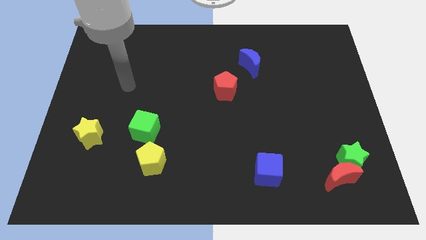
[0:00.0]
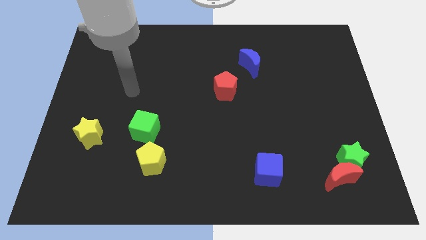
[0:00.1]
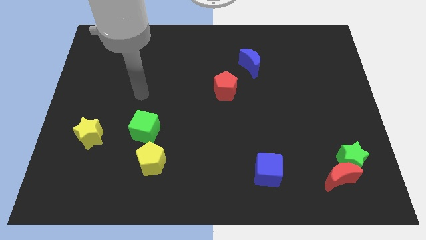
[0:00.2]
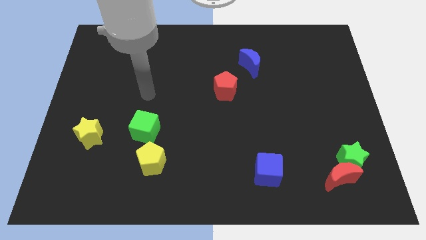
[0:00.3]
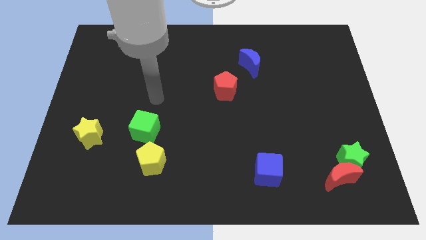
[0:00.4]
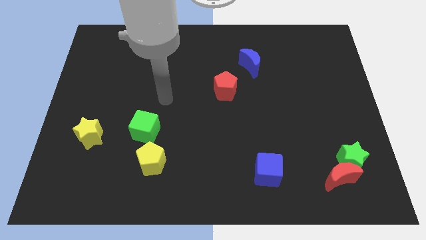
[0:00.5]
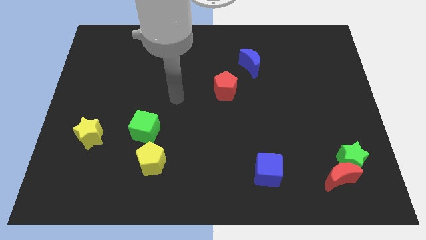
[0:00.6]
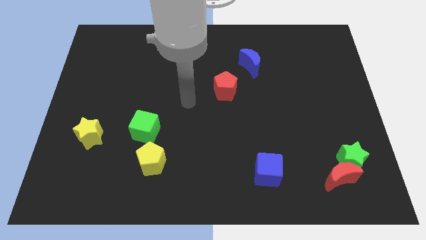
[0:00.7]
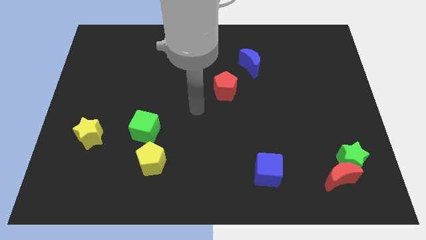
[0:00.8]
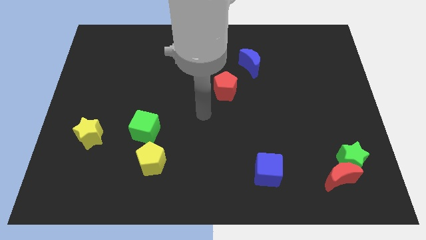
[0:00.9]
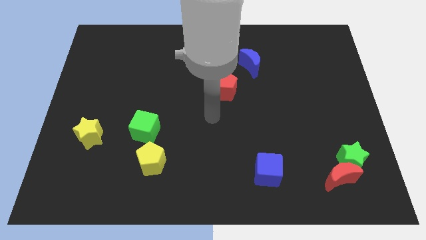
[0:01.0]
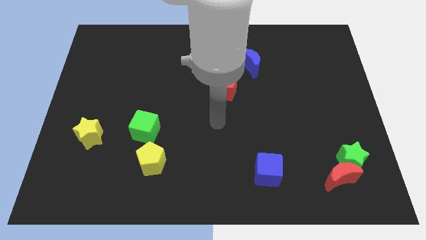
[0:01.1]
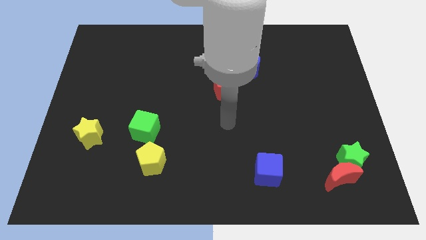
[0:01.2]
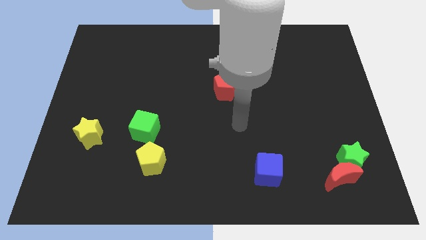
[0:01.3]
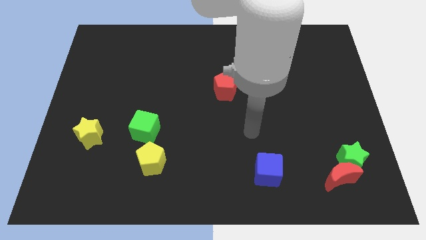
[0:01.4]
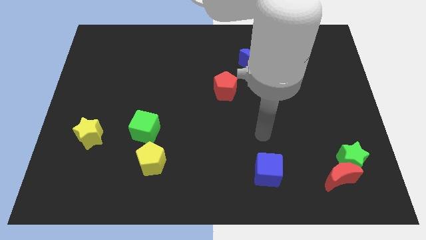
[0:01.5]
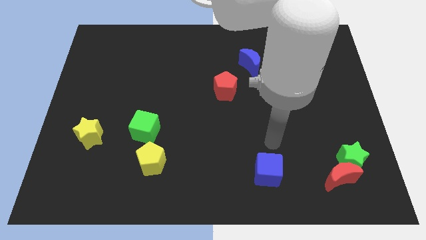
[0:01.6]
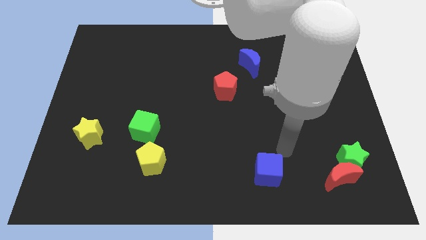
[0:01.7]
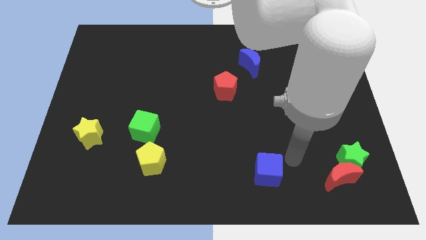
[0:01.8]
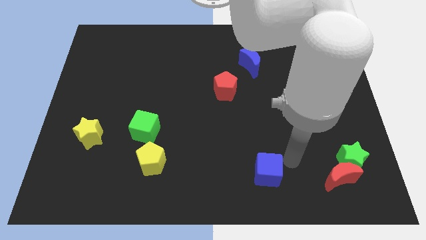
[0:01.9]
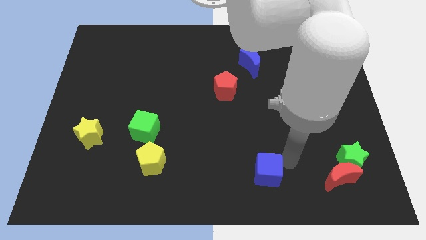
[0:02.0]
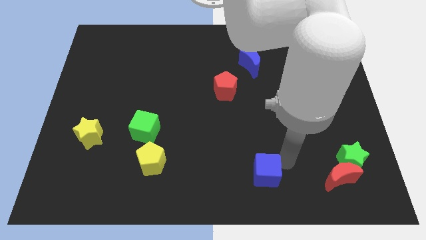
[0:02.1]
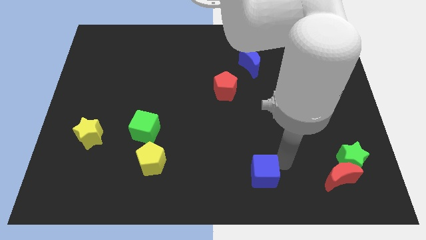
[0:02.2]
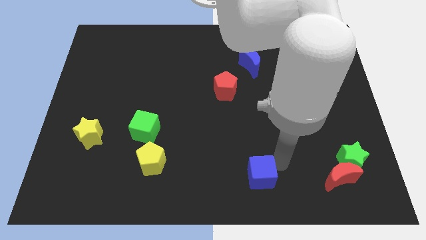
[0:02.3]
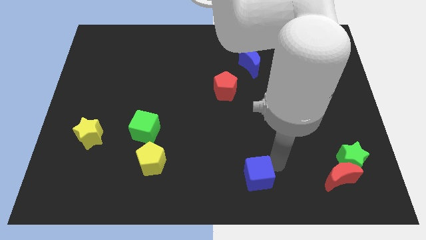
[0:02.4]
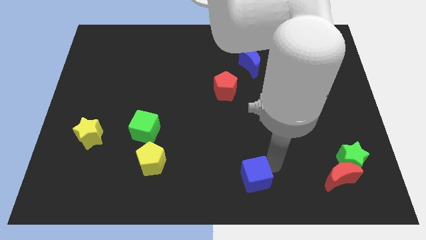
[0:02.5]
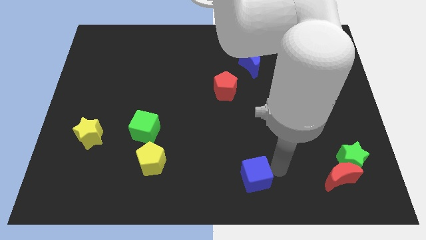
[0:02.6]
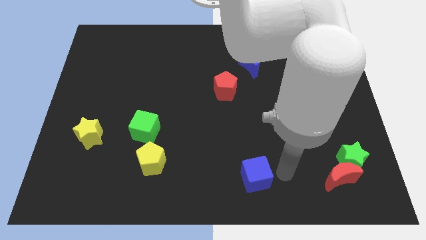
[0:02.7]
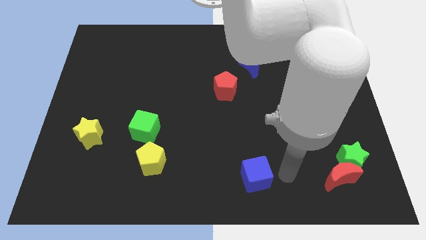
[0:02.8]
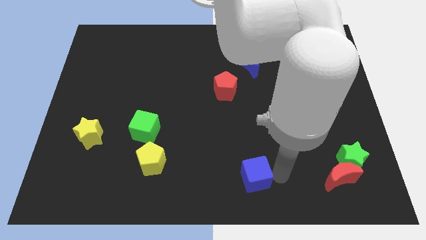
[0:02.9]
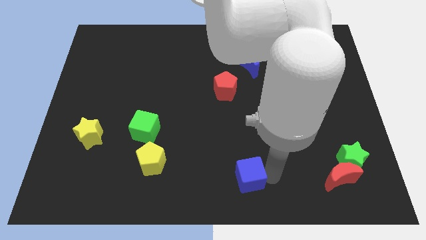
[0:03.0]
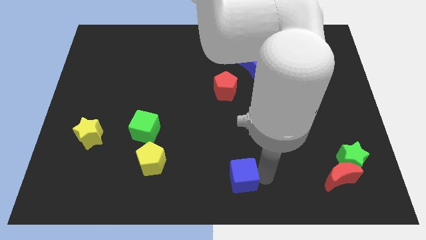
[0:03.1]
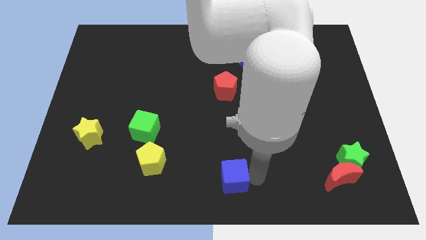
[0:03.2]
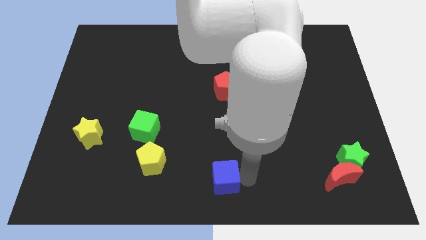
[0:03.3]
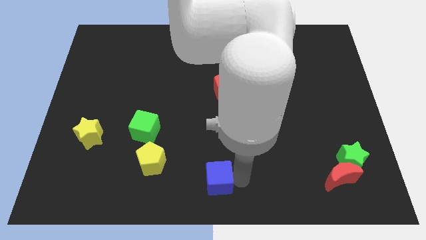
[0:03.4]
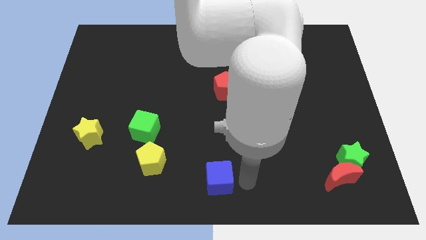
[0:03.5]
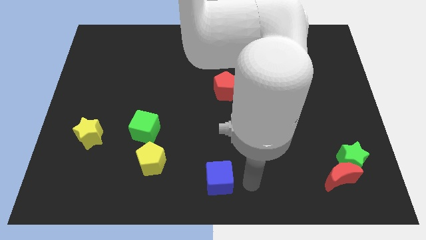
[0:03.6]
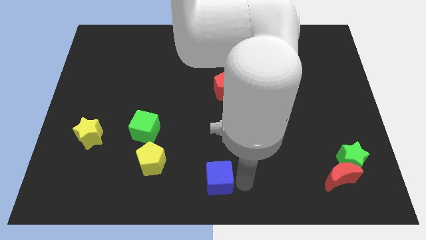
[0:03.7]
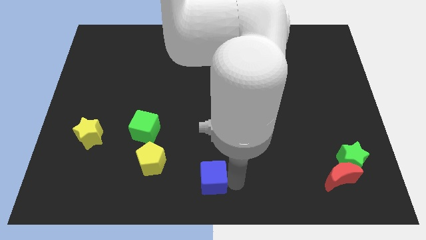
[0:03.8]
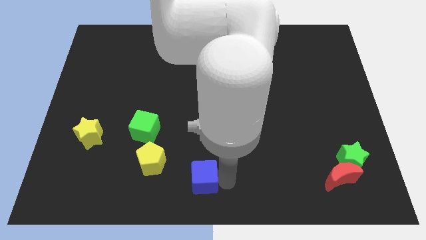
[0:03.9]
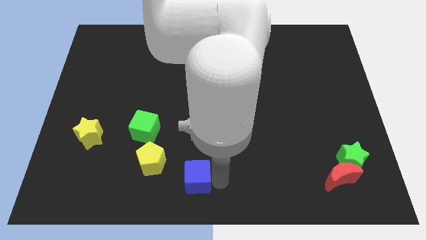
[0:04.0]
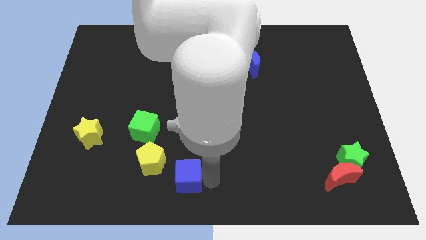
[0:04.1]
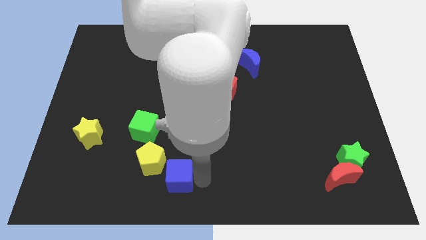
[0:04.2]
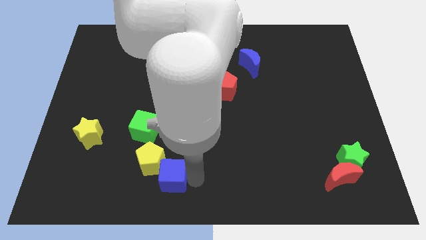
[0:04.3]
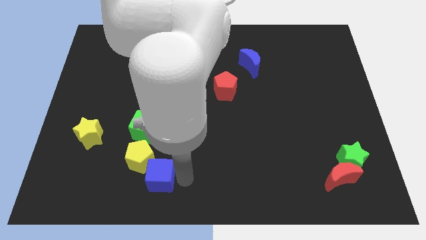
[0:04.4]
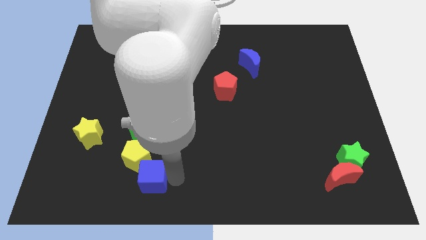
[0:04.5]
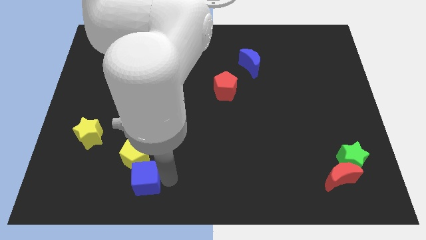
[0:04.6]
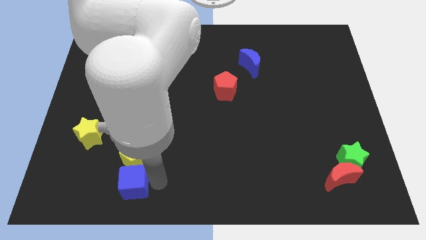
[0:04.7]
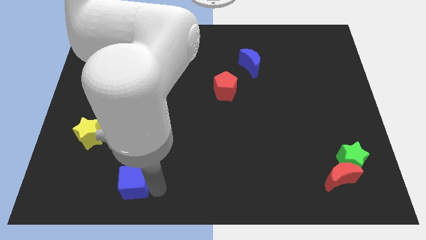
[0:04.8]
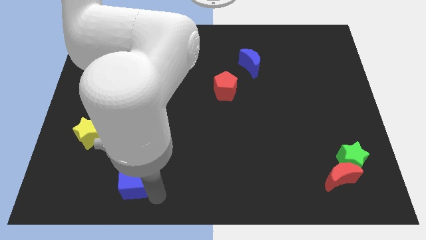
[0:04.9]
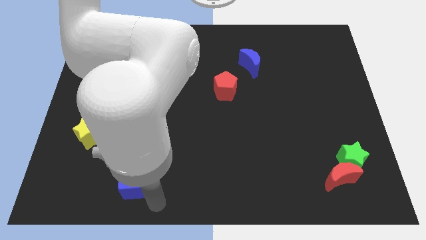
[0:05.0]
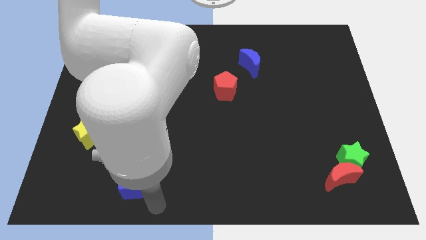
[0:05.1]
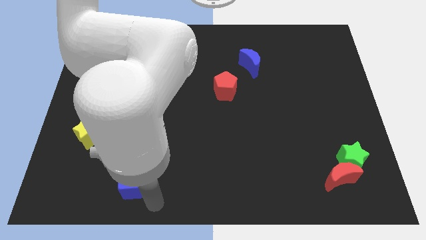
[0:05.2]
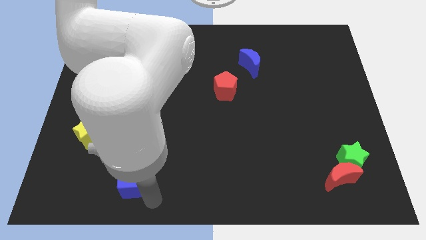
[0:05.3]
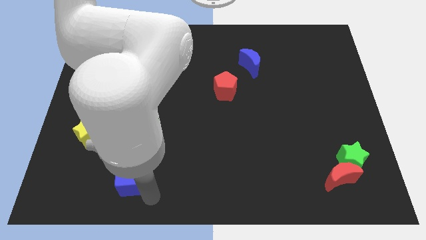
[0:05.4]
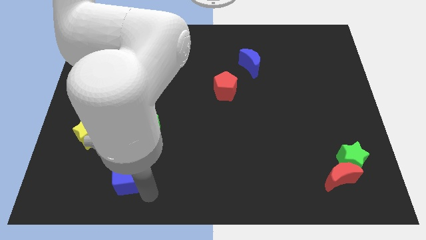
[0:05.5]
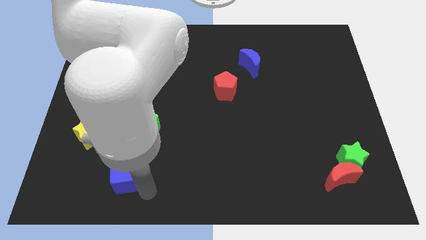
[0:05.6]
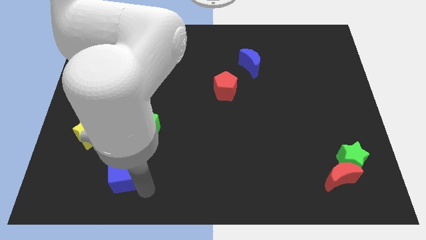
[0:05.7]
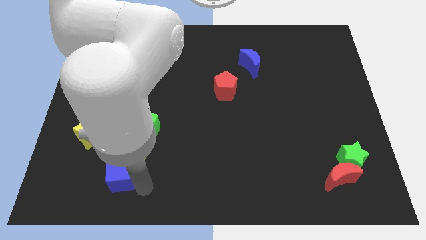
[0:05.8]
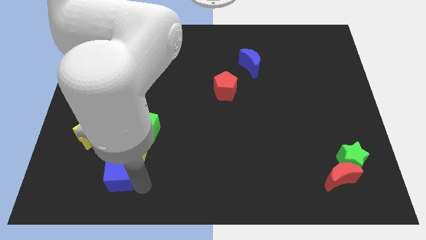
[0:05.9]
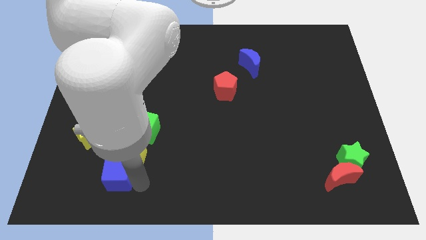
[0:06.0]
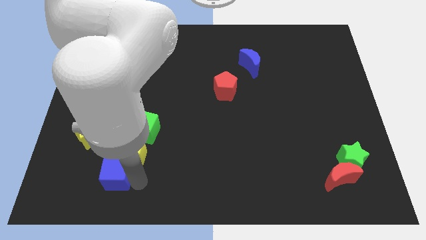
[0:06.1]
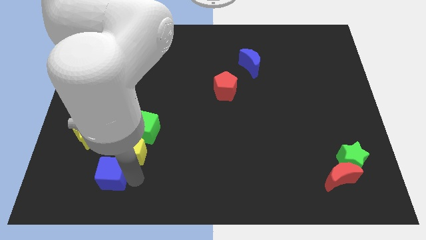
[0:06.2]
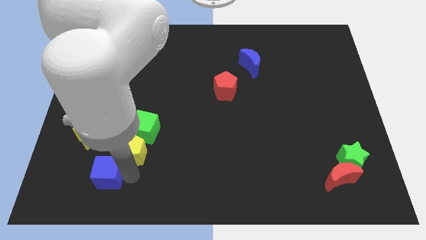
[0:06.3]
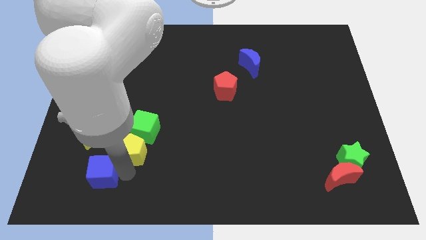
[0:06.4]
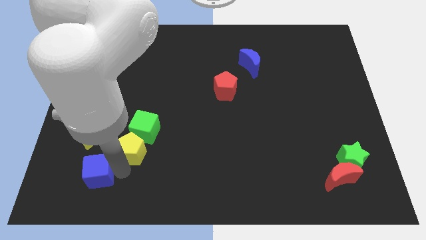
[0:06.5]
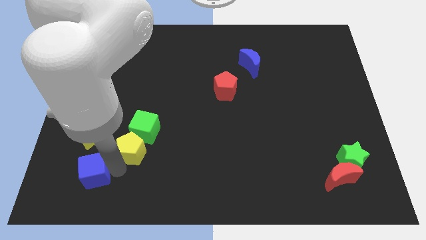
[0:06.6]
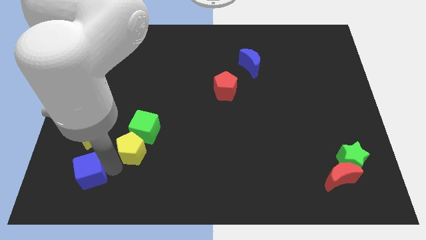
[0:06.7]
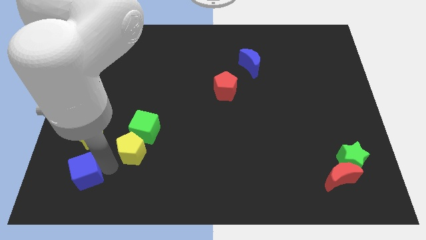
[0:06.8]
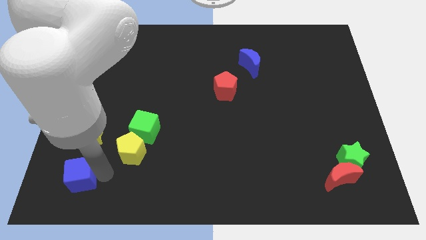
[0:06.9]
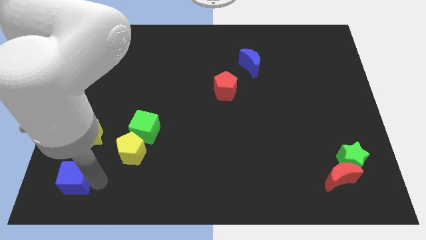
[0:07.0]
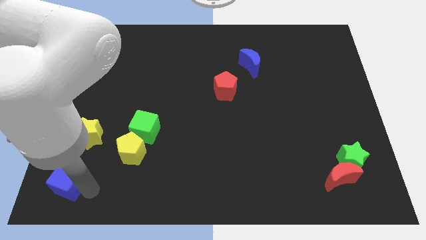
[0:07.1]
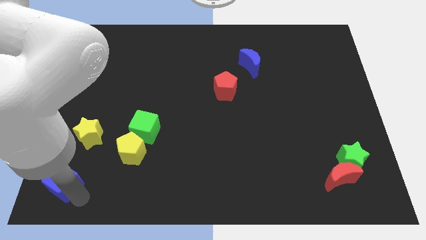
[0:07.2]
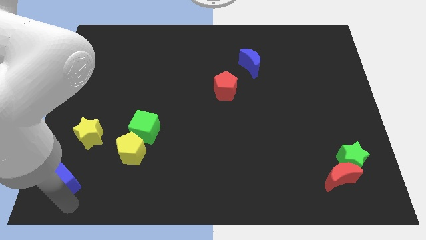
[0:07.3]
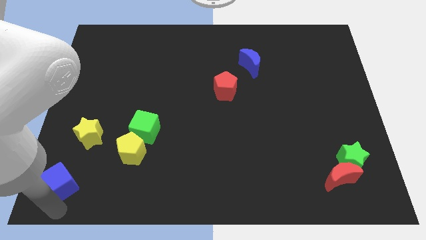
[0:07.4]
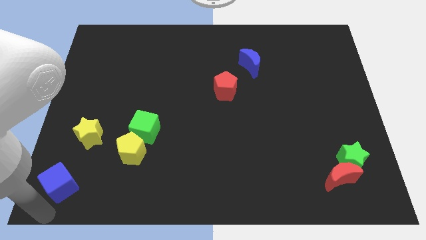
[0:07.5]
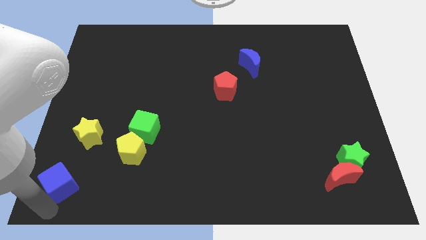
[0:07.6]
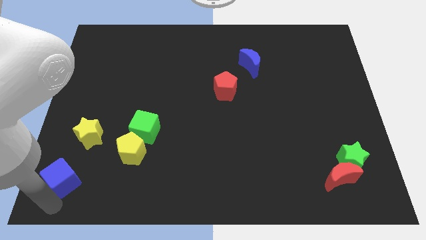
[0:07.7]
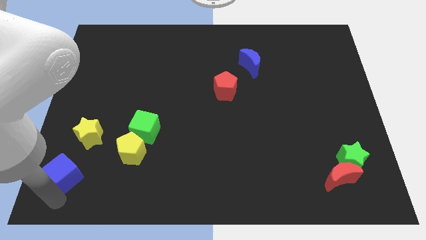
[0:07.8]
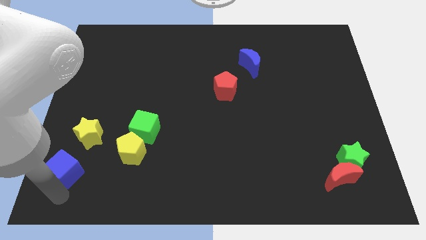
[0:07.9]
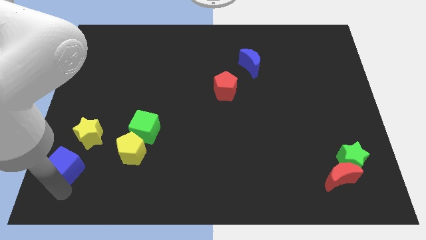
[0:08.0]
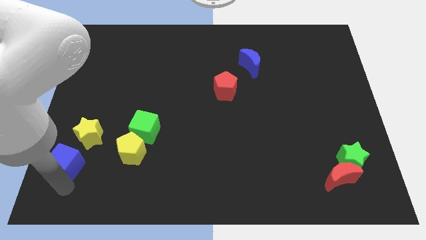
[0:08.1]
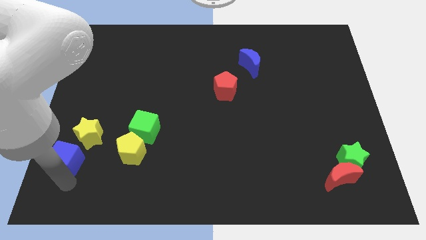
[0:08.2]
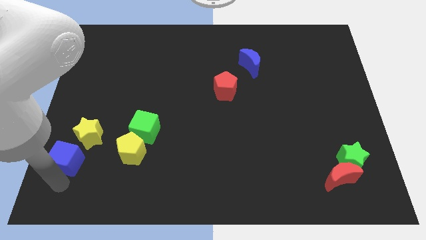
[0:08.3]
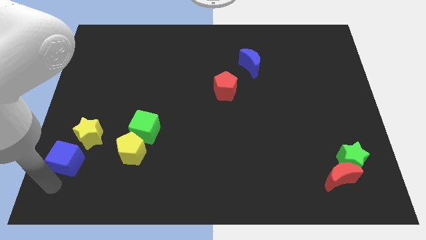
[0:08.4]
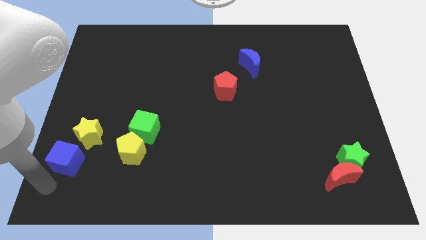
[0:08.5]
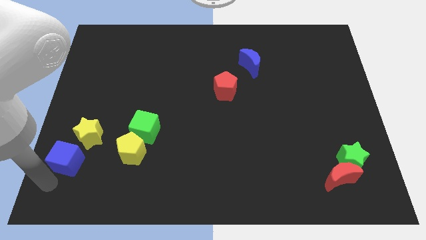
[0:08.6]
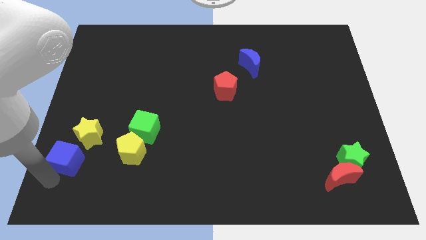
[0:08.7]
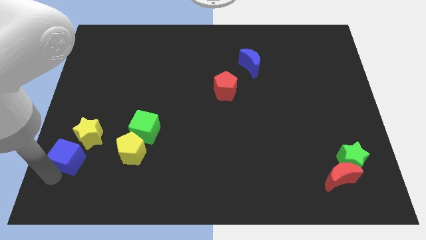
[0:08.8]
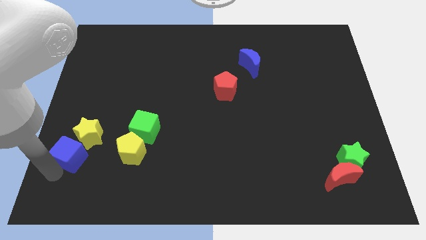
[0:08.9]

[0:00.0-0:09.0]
slide the blue cube close to the yellow star
